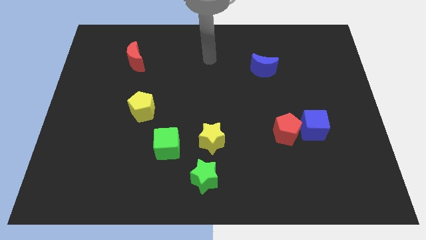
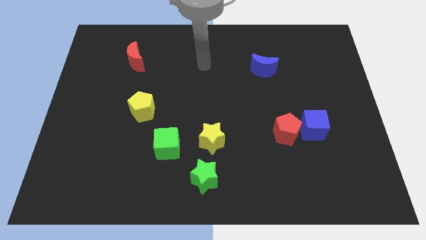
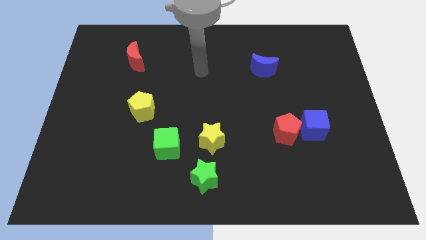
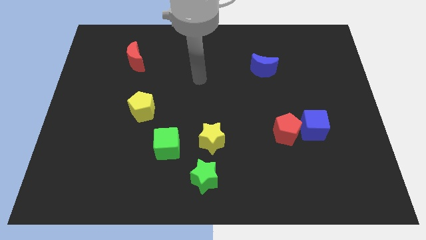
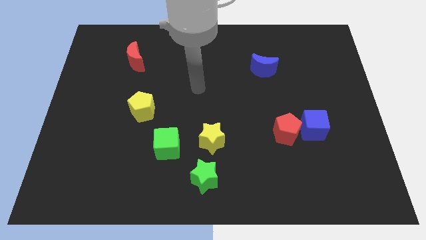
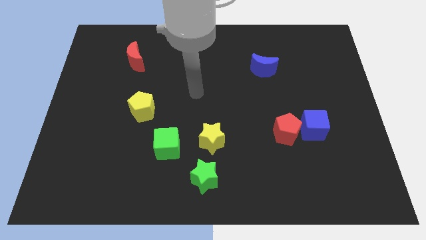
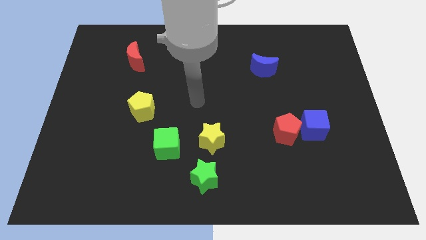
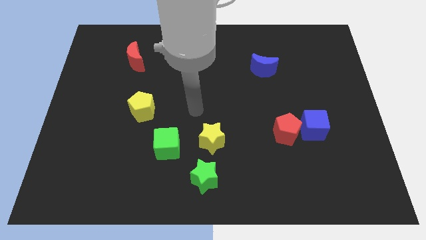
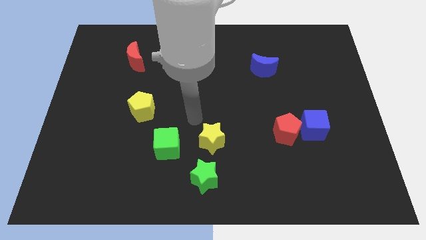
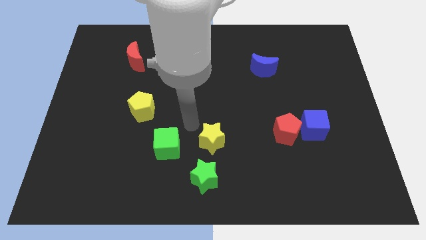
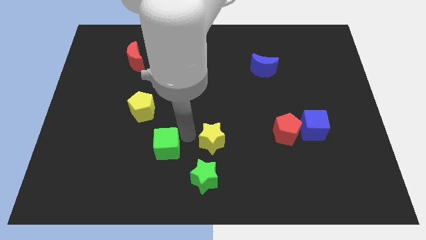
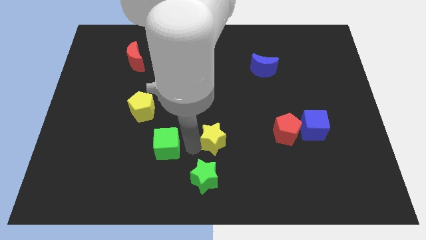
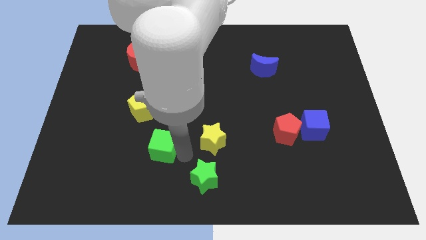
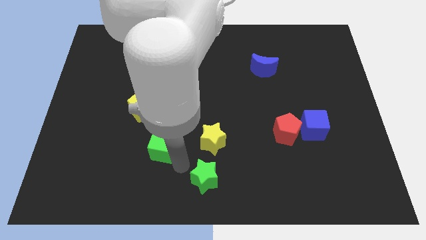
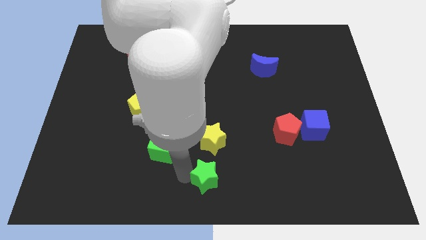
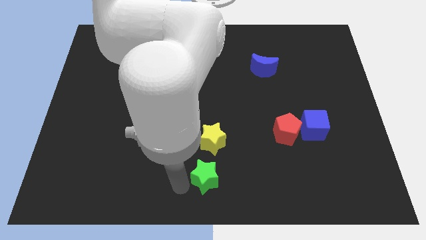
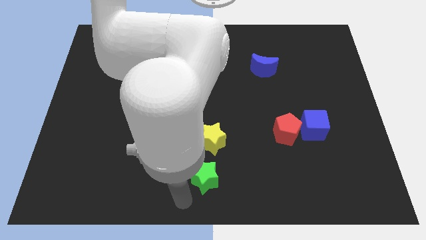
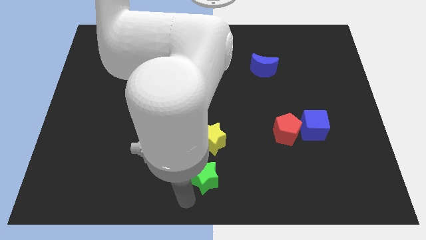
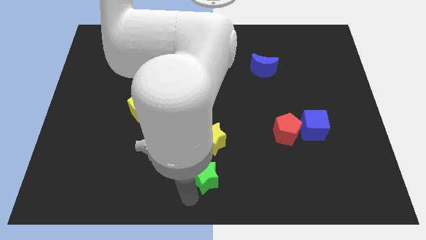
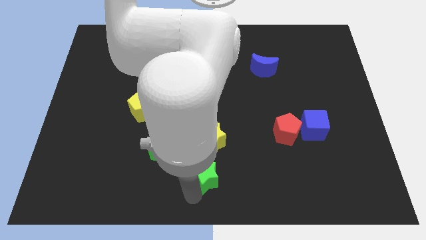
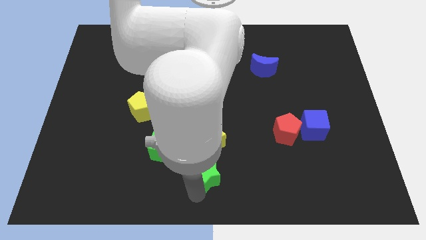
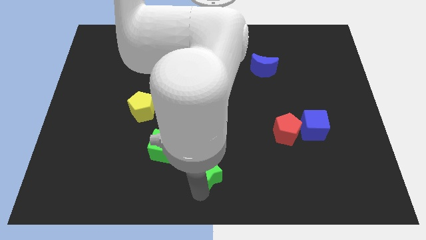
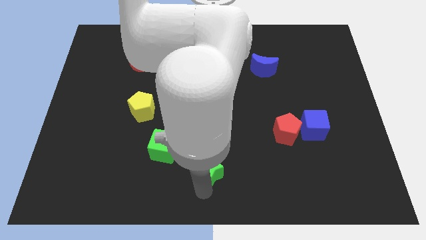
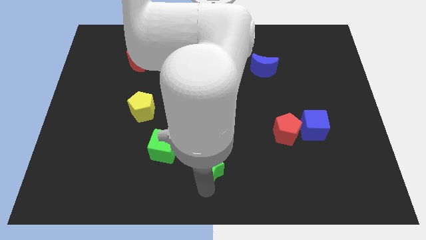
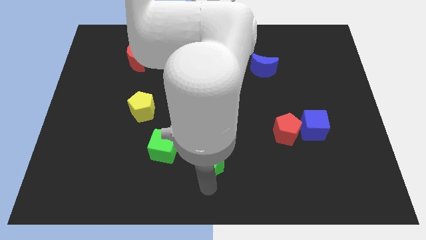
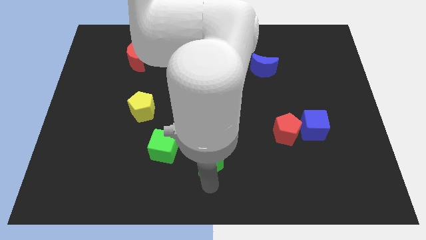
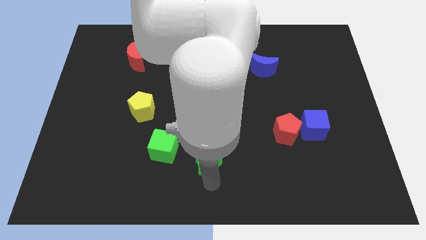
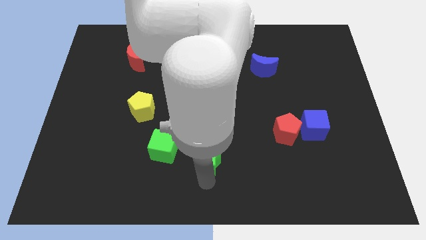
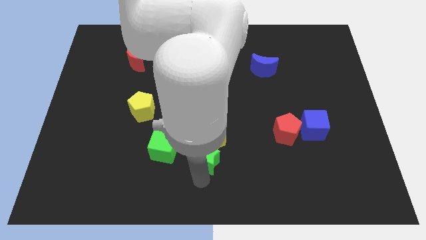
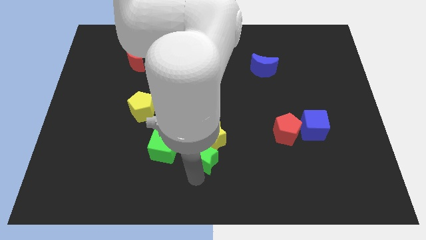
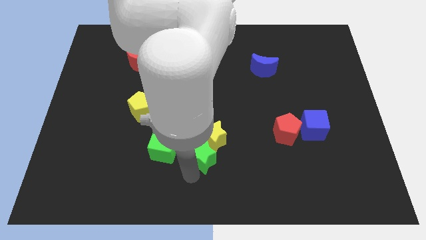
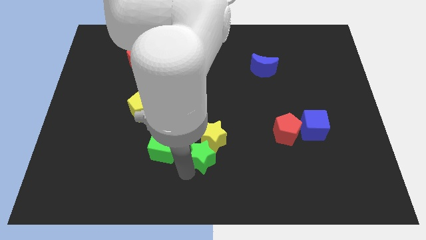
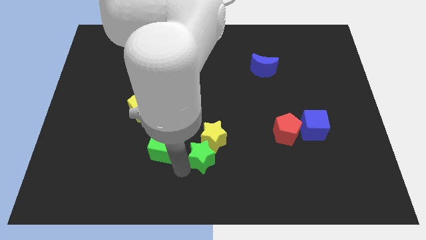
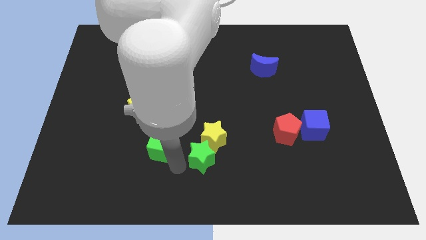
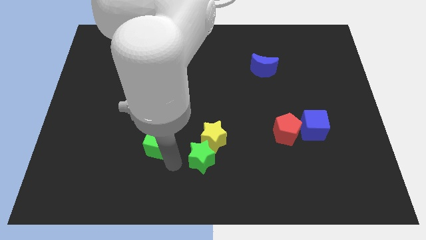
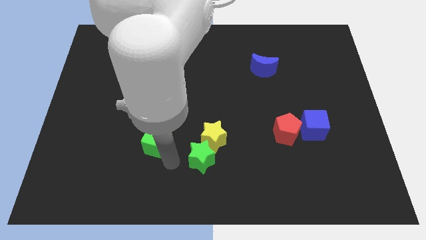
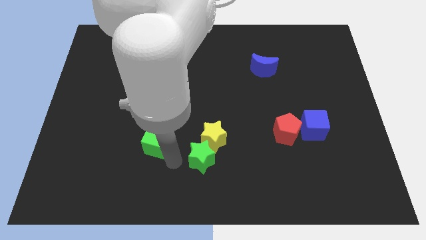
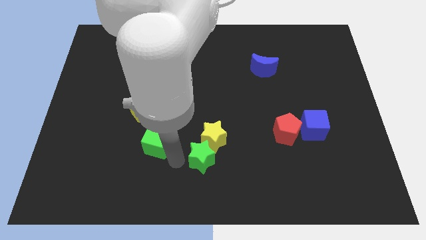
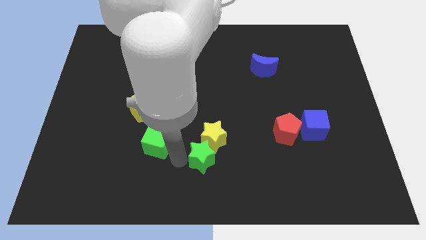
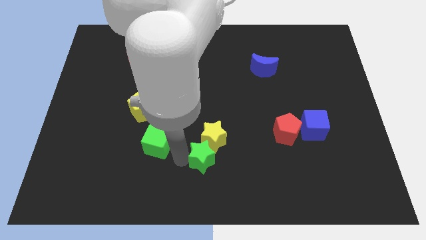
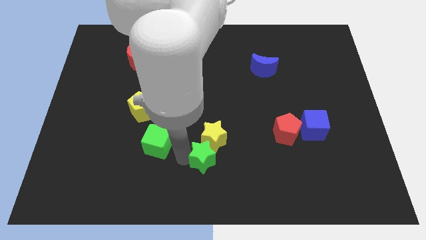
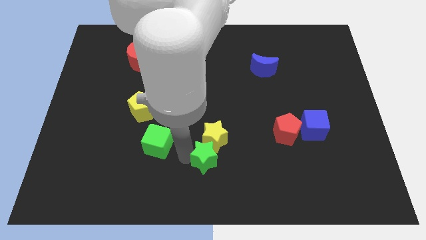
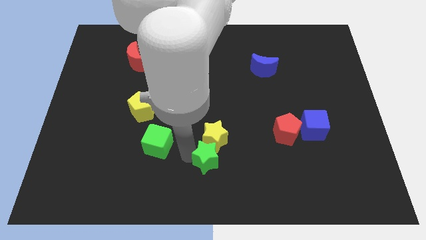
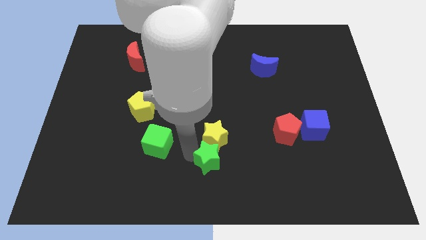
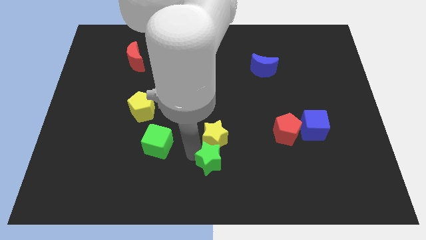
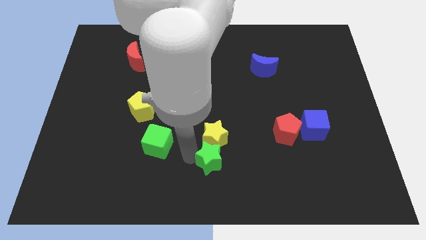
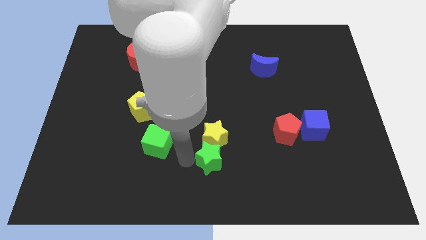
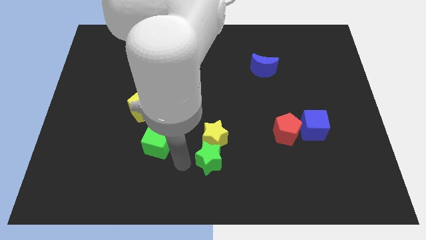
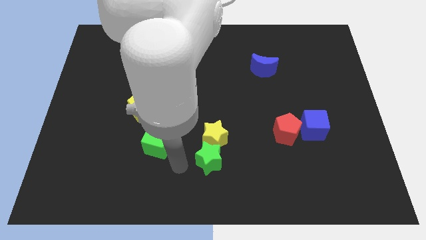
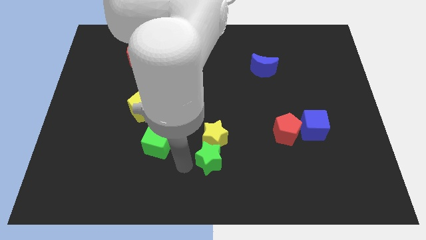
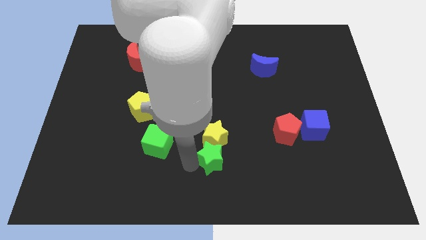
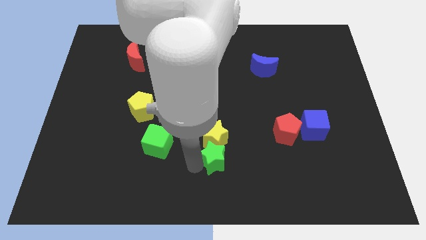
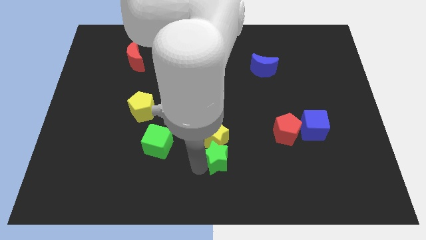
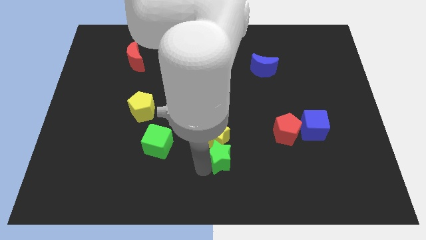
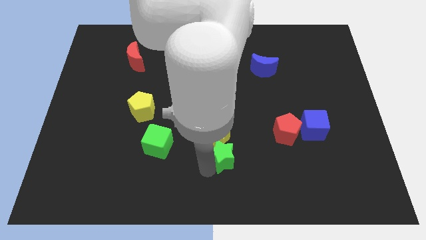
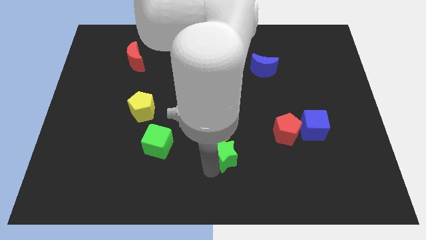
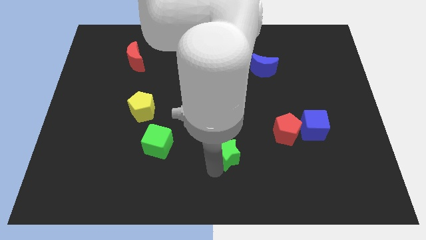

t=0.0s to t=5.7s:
push the green star upwards and then right a little

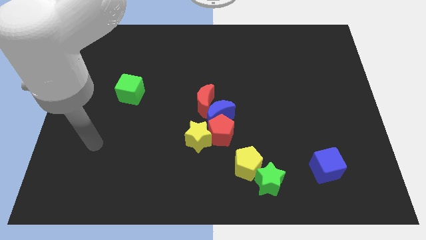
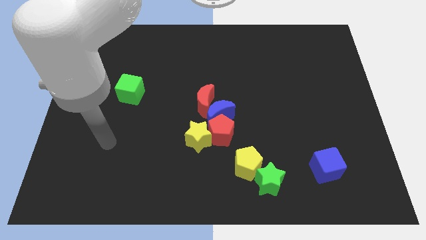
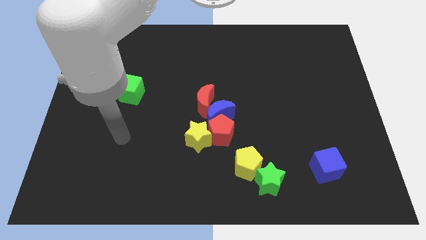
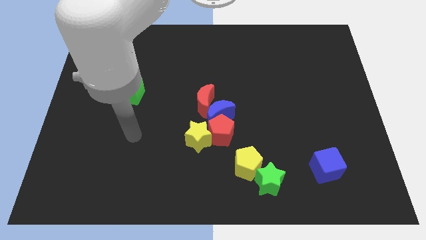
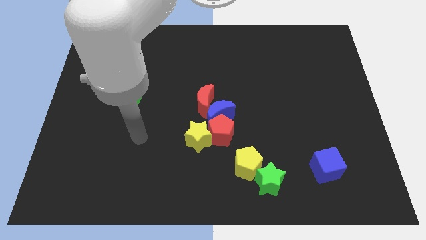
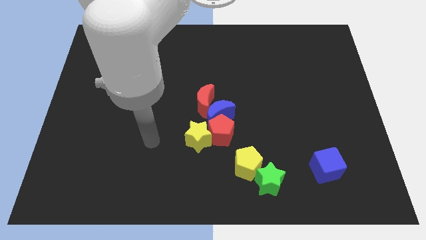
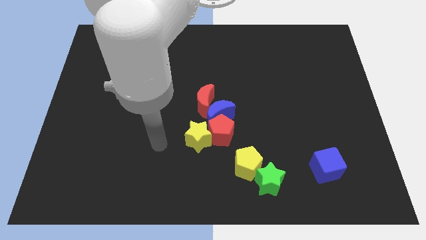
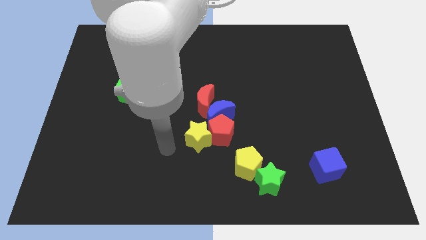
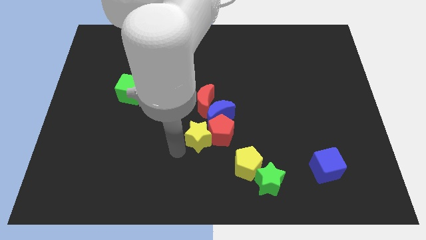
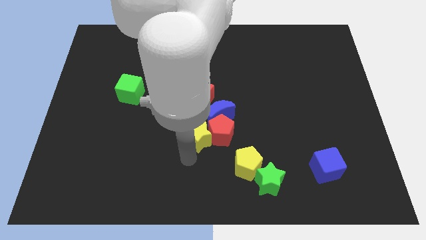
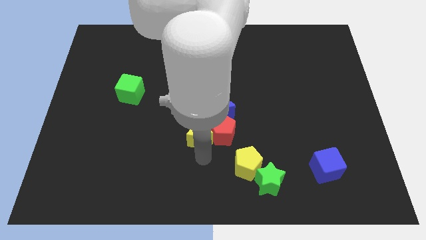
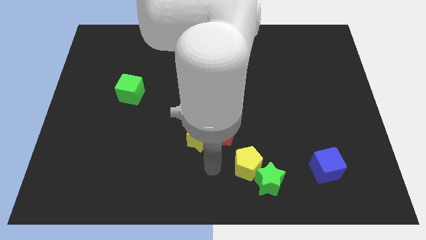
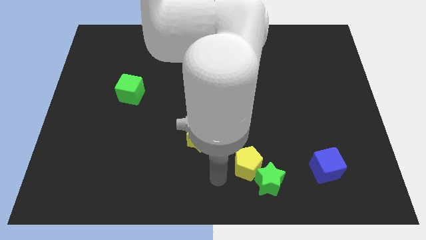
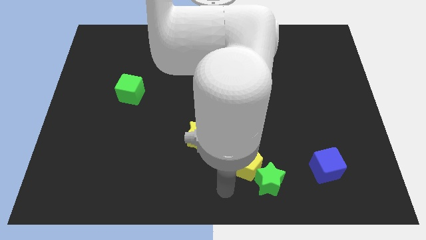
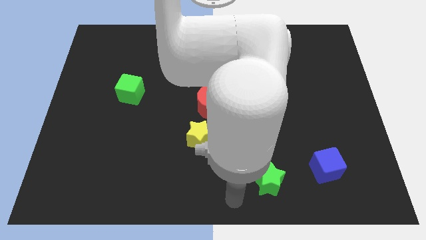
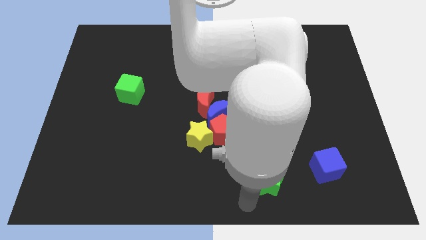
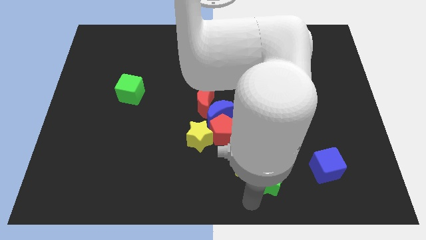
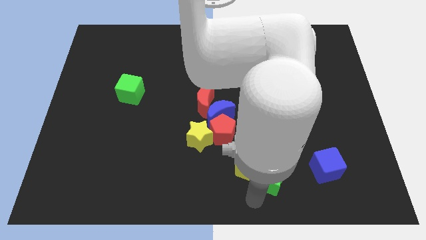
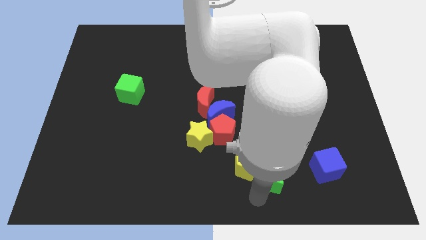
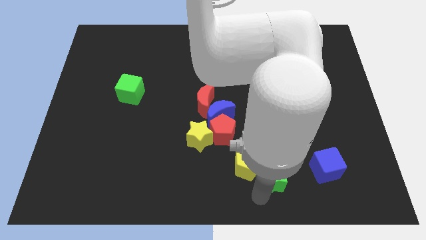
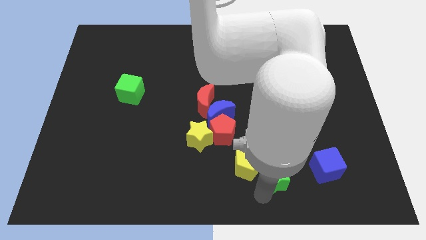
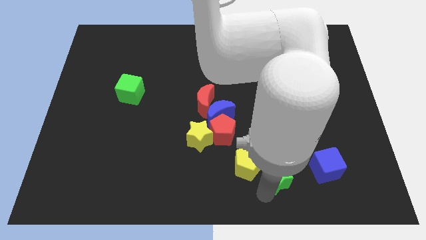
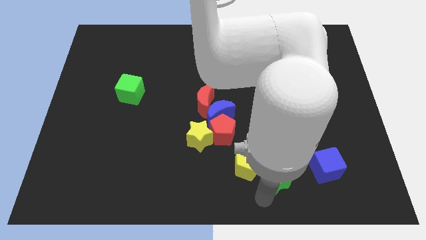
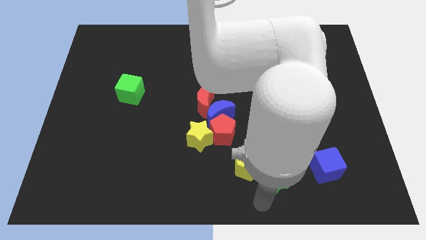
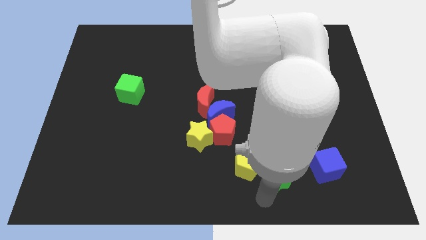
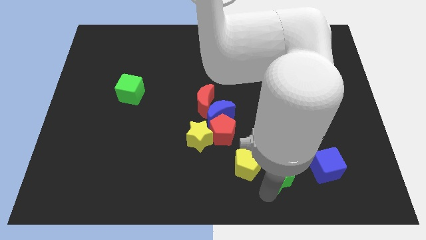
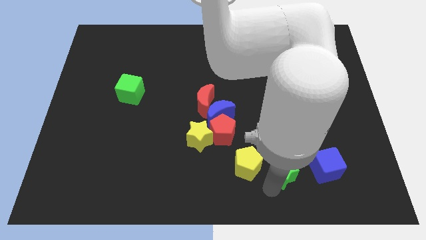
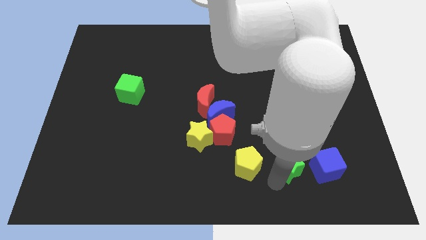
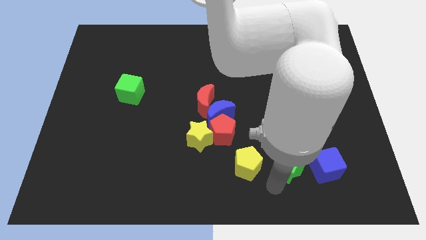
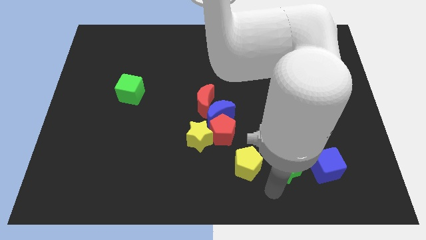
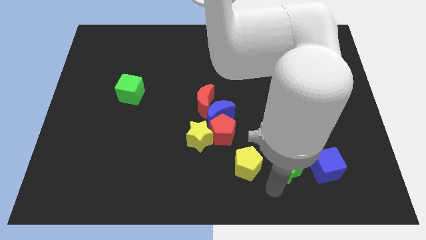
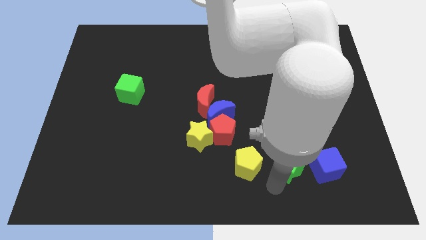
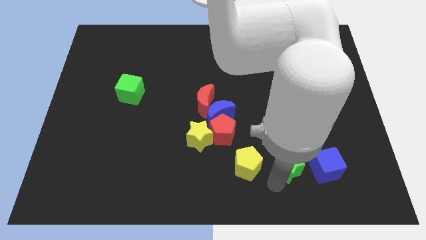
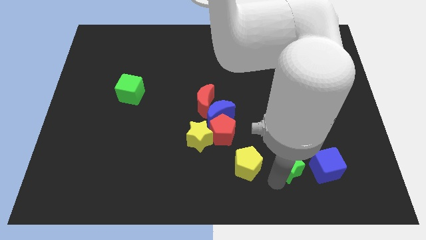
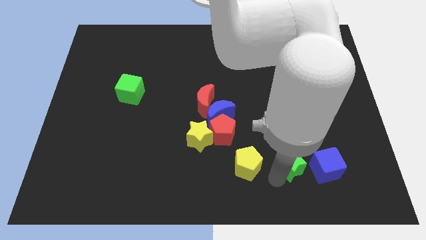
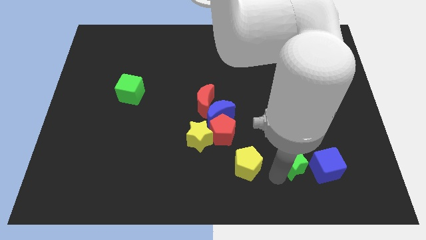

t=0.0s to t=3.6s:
push the green star somewhat up and then right
